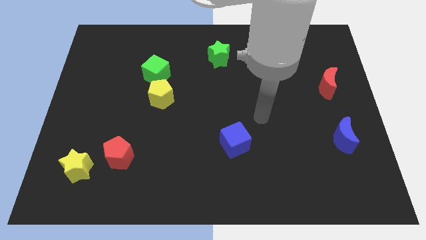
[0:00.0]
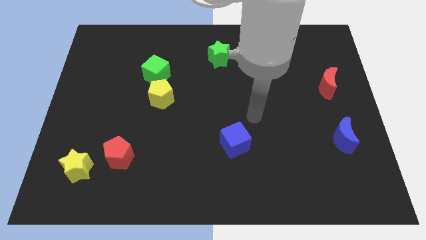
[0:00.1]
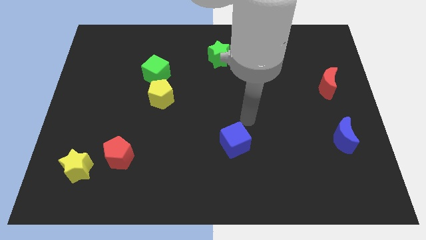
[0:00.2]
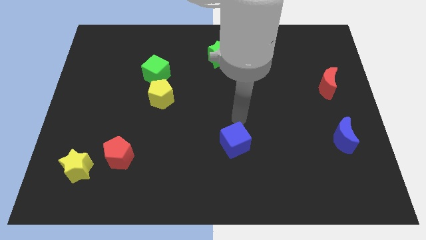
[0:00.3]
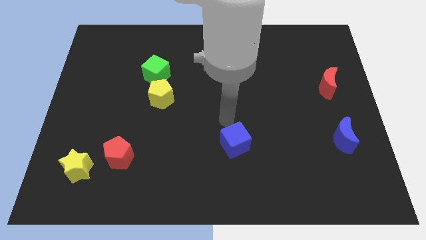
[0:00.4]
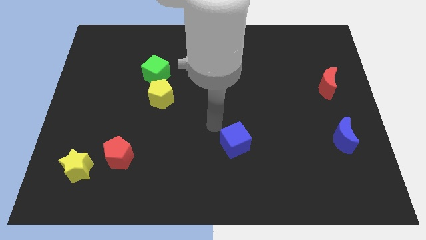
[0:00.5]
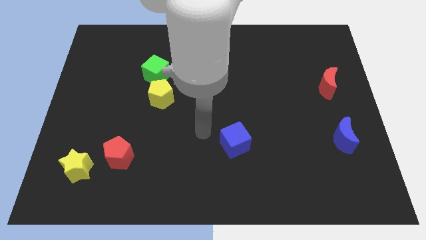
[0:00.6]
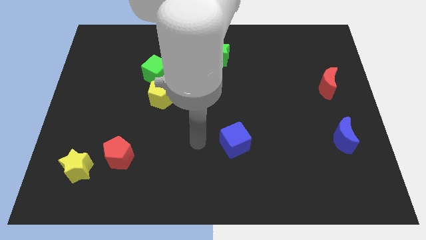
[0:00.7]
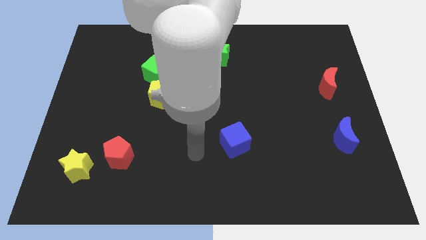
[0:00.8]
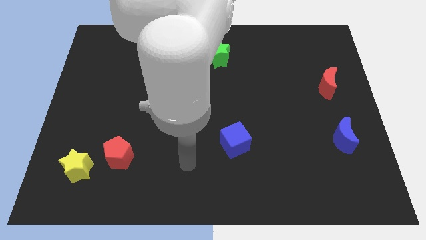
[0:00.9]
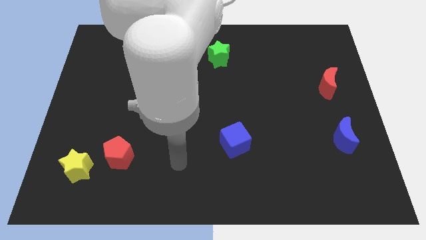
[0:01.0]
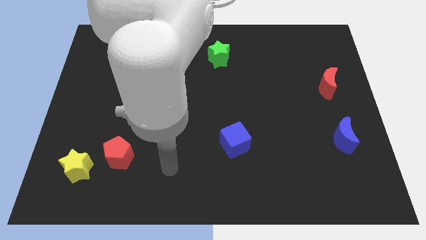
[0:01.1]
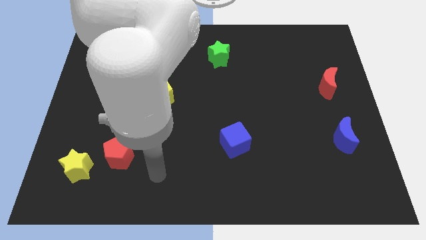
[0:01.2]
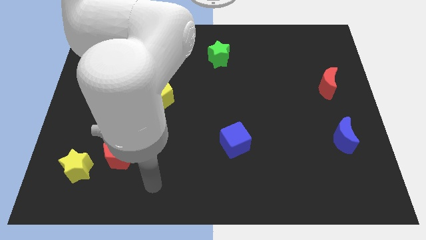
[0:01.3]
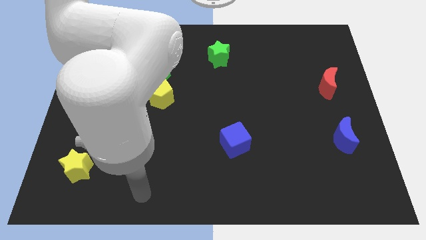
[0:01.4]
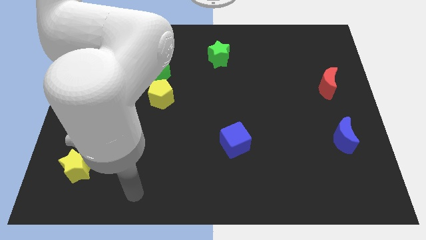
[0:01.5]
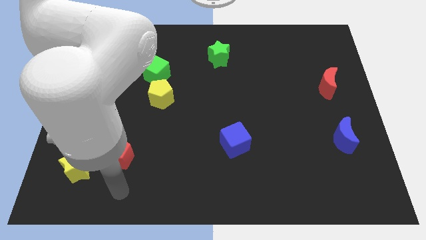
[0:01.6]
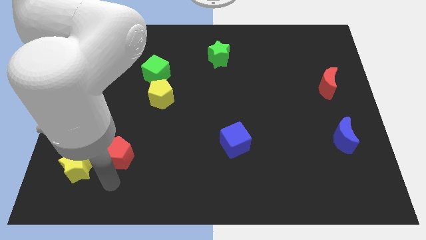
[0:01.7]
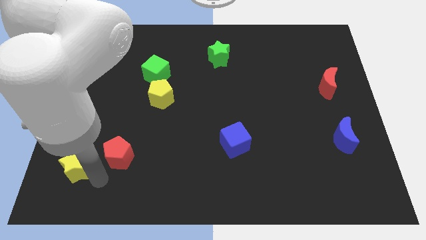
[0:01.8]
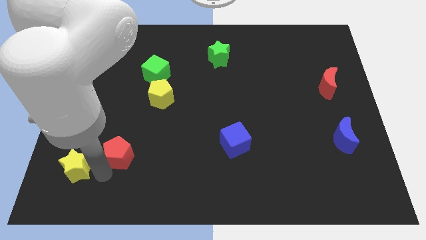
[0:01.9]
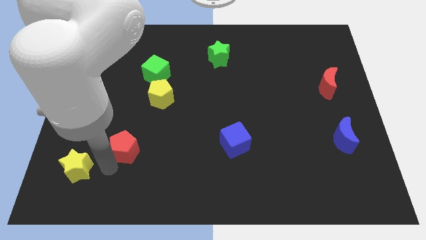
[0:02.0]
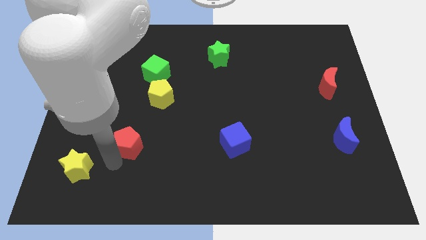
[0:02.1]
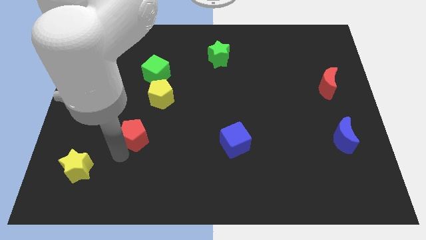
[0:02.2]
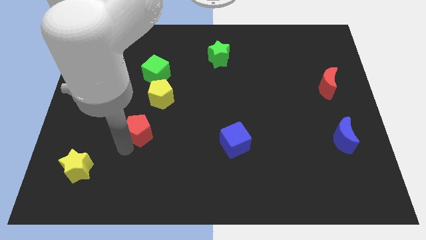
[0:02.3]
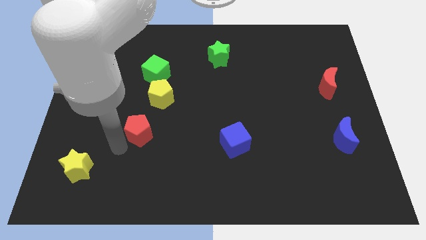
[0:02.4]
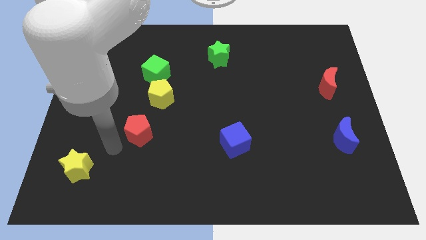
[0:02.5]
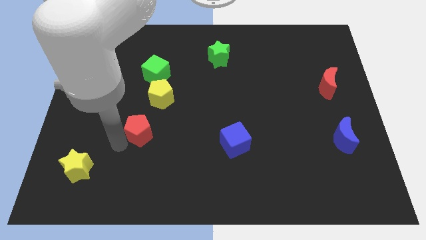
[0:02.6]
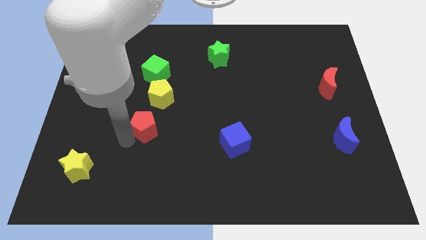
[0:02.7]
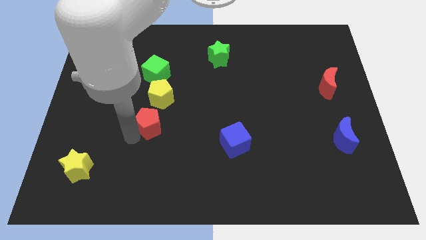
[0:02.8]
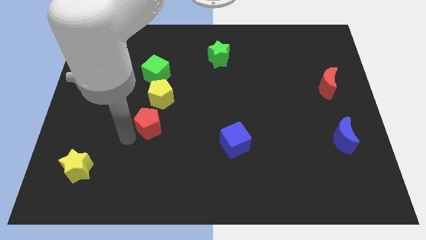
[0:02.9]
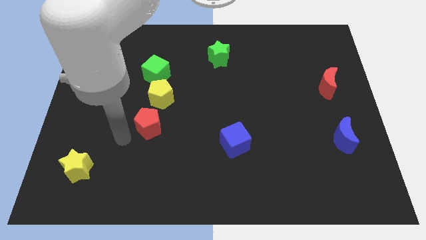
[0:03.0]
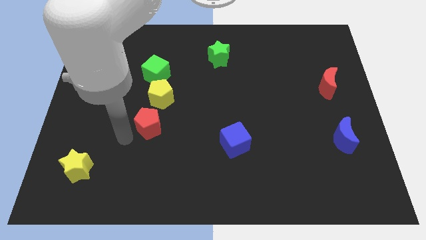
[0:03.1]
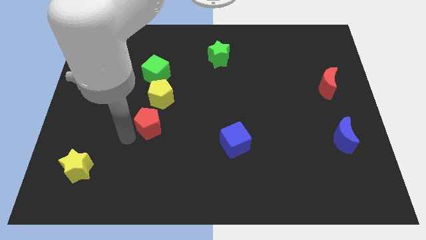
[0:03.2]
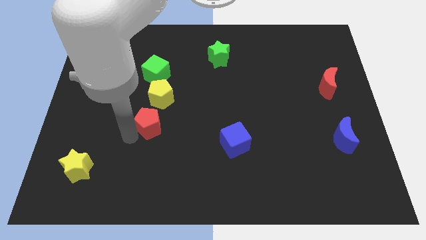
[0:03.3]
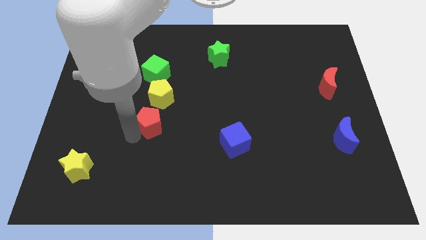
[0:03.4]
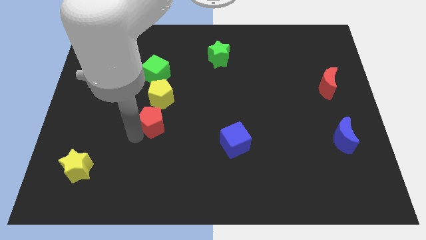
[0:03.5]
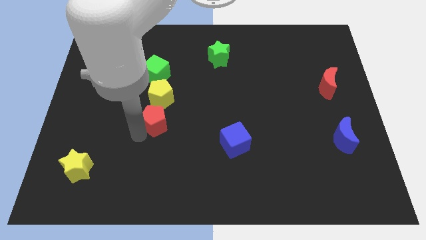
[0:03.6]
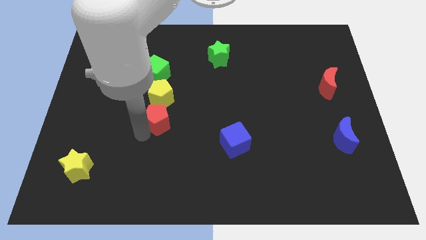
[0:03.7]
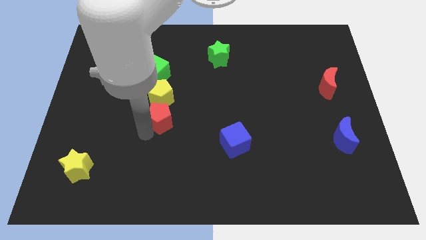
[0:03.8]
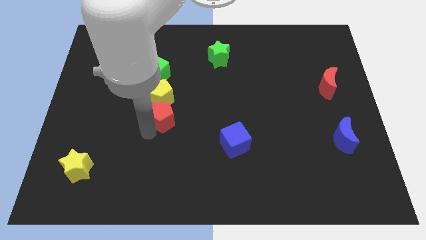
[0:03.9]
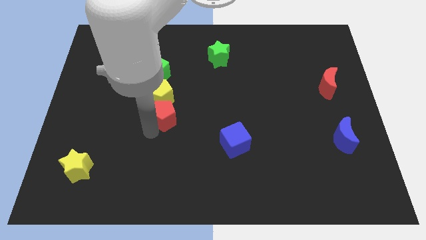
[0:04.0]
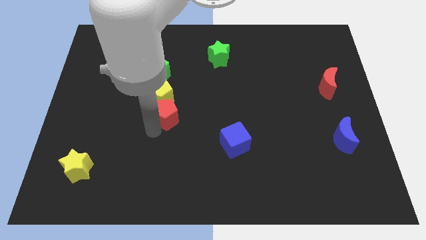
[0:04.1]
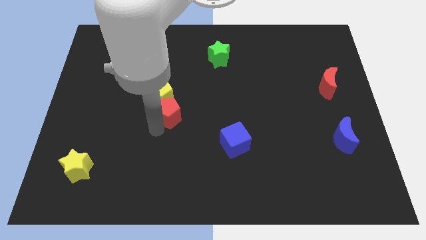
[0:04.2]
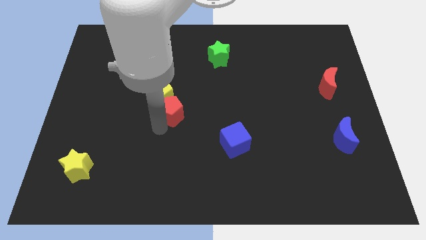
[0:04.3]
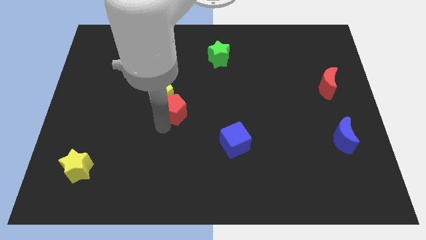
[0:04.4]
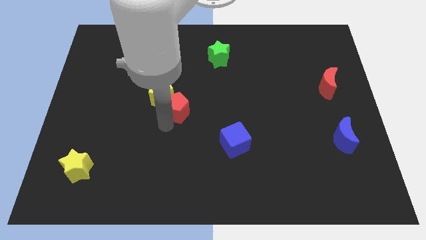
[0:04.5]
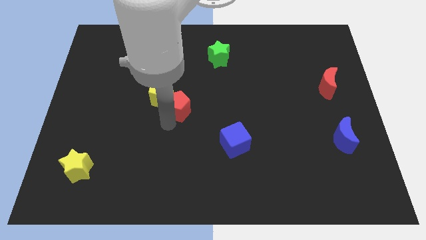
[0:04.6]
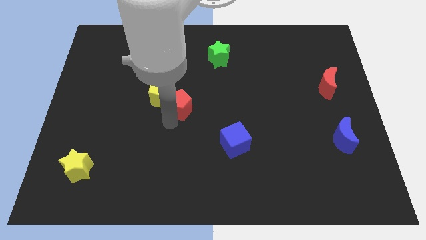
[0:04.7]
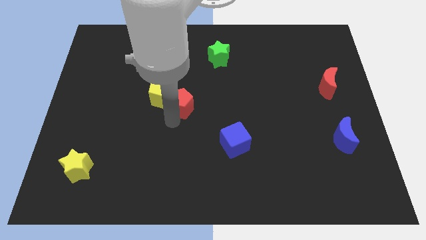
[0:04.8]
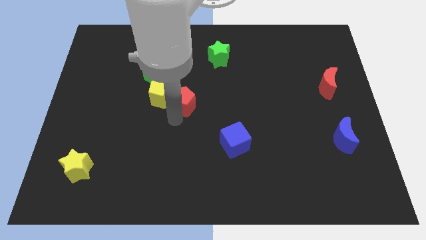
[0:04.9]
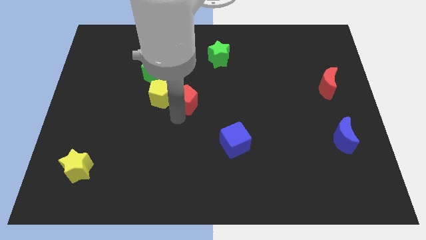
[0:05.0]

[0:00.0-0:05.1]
move the red pentagon diagonally up and to the right

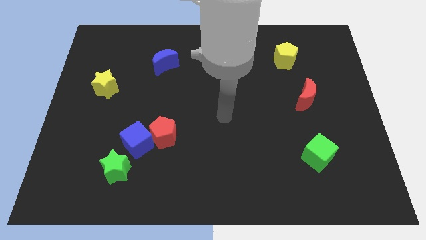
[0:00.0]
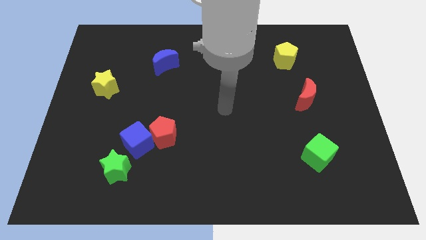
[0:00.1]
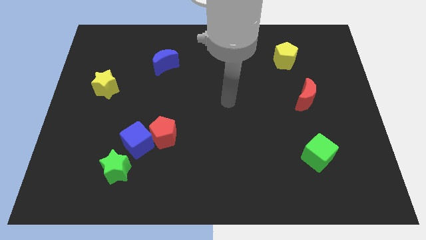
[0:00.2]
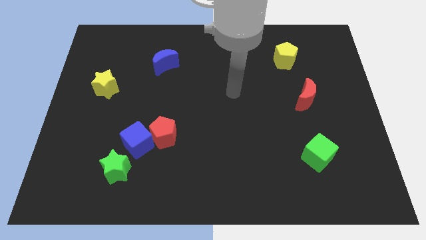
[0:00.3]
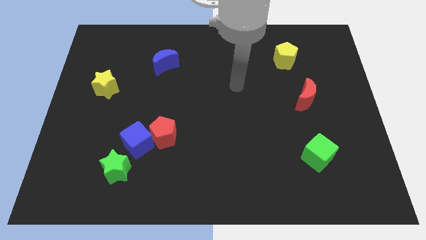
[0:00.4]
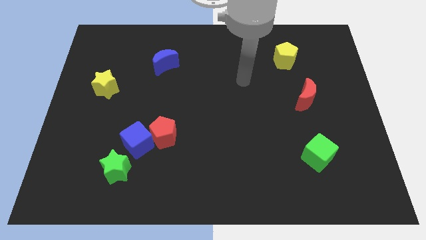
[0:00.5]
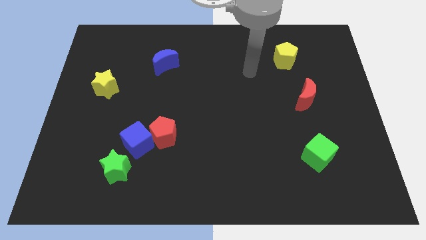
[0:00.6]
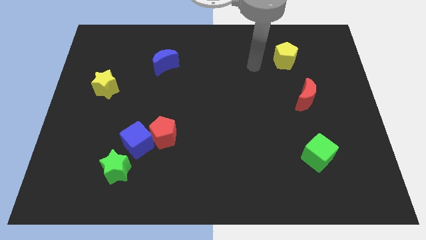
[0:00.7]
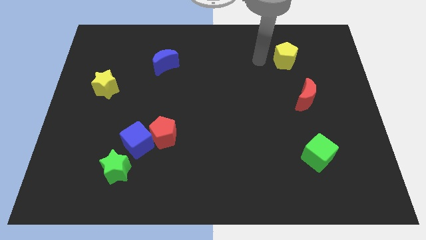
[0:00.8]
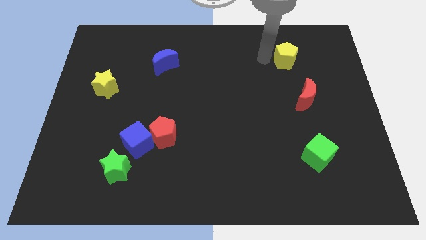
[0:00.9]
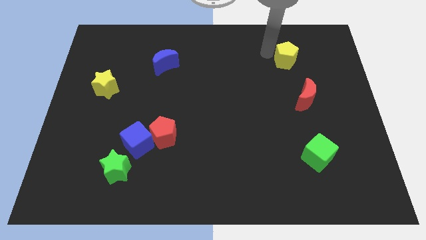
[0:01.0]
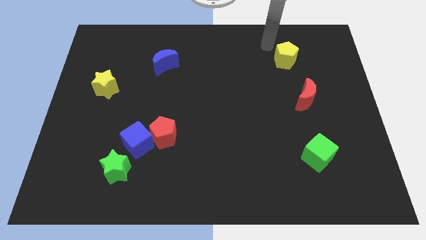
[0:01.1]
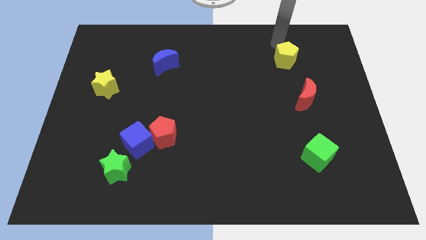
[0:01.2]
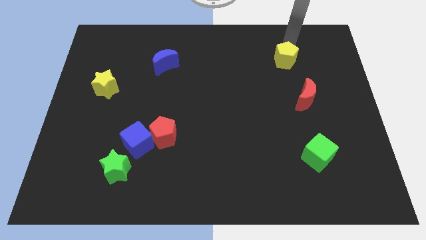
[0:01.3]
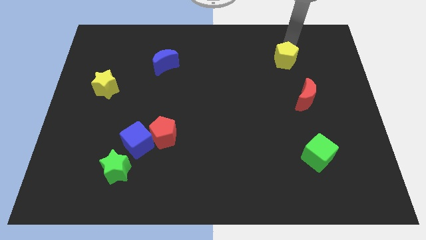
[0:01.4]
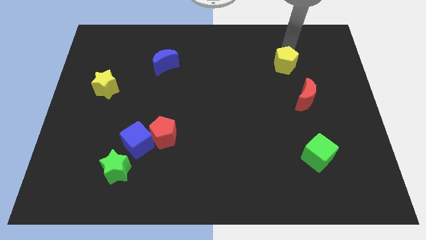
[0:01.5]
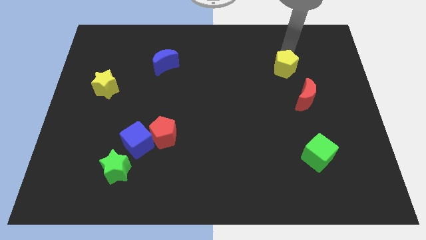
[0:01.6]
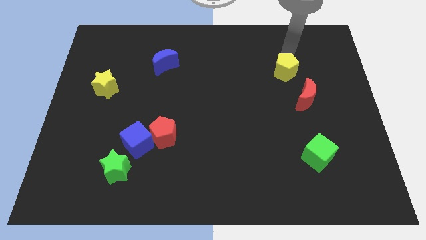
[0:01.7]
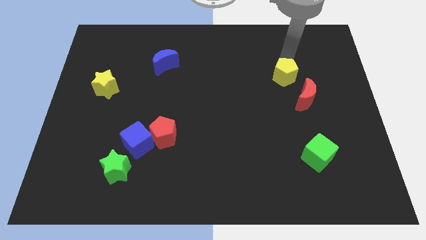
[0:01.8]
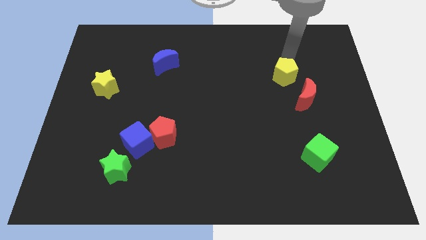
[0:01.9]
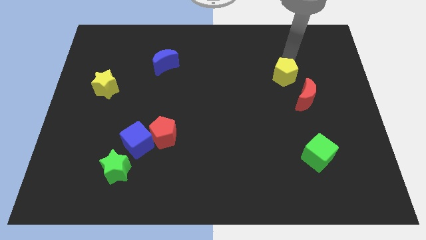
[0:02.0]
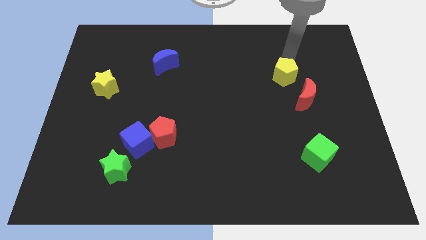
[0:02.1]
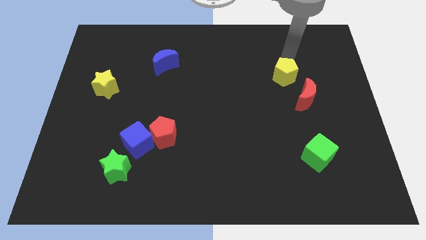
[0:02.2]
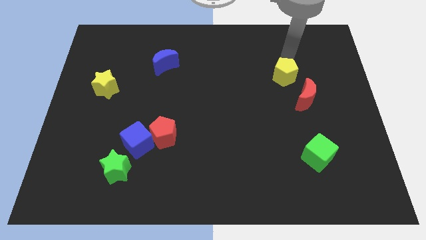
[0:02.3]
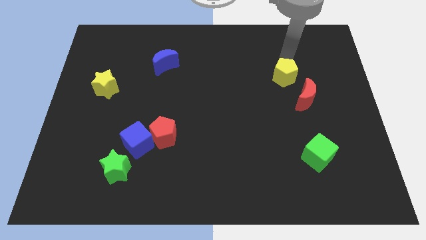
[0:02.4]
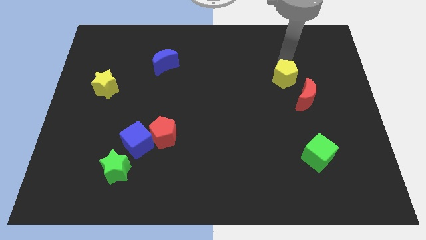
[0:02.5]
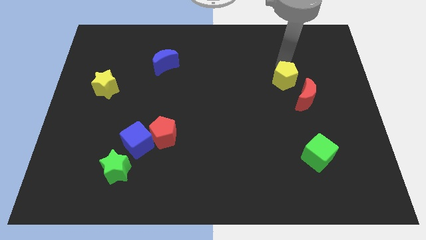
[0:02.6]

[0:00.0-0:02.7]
slightly slide the yellow pentagon downwards

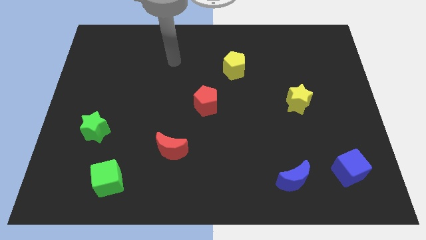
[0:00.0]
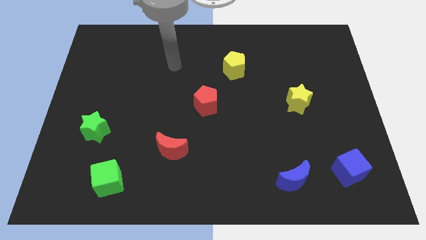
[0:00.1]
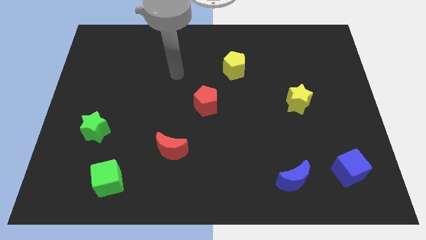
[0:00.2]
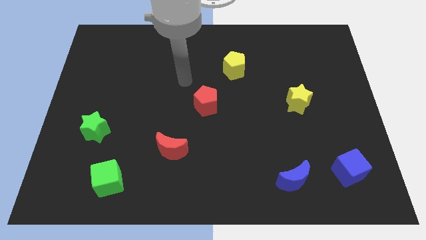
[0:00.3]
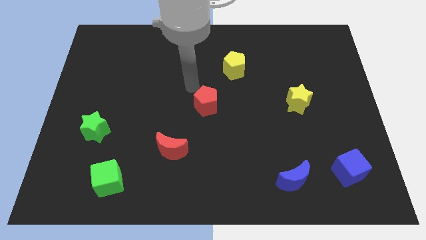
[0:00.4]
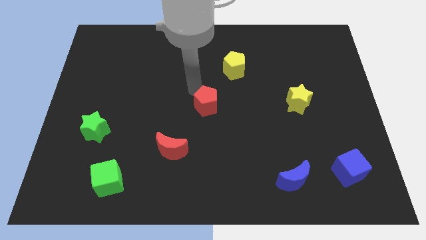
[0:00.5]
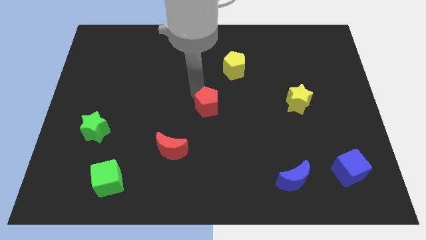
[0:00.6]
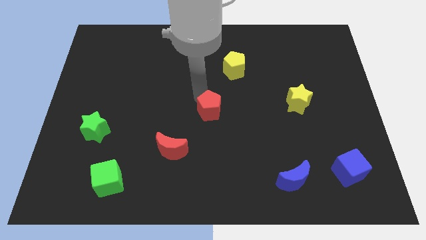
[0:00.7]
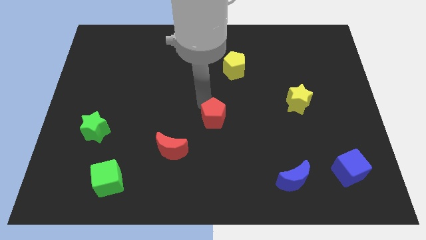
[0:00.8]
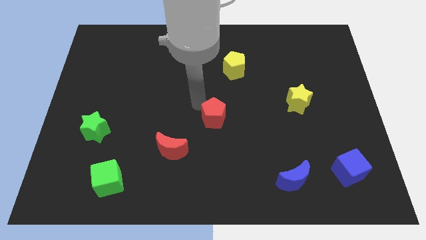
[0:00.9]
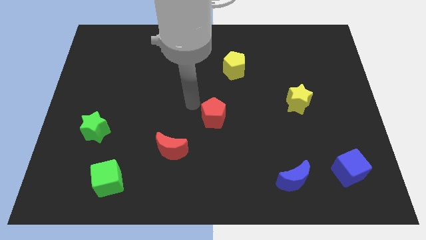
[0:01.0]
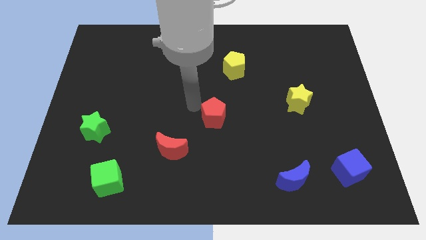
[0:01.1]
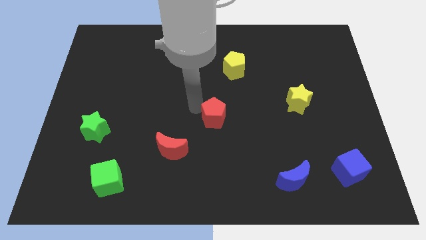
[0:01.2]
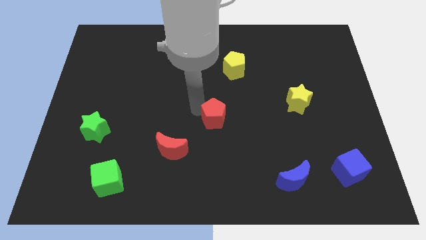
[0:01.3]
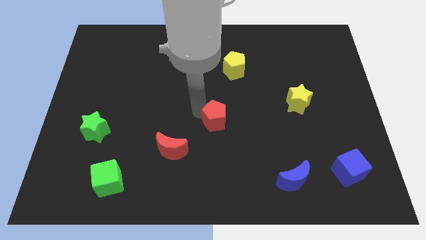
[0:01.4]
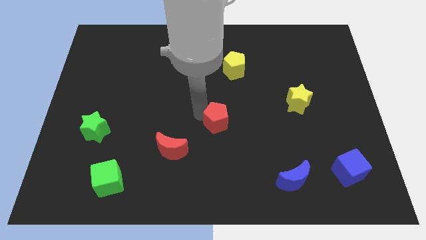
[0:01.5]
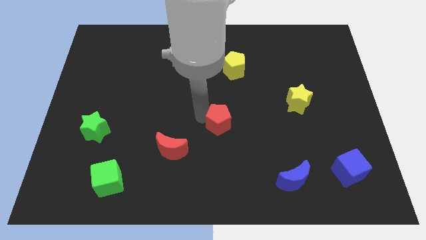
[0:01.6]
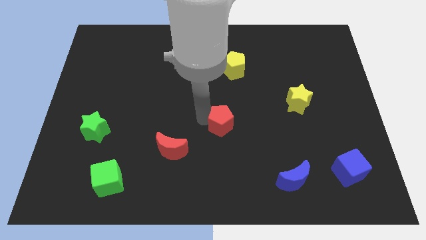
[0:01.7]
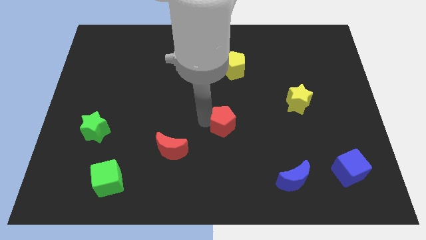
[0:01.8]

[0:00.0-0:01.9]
move the red pentagon diagonally down and right somewhat
